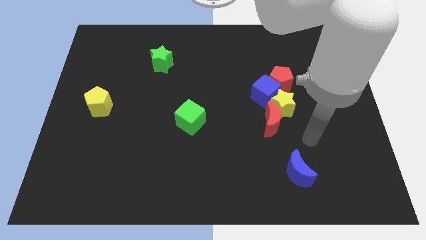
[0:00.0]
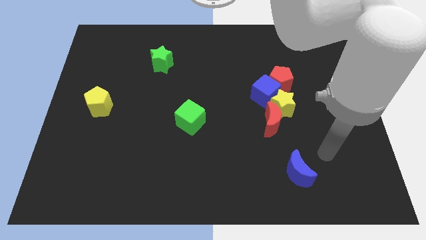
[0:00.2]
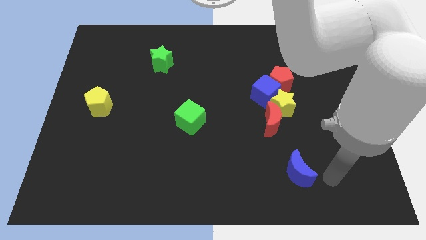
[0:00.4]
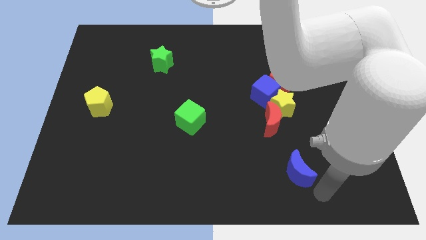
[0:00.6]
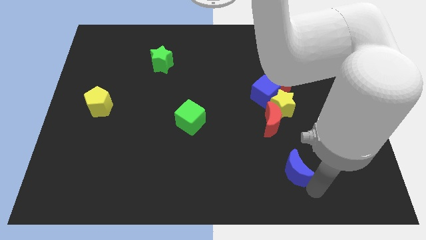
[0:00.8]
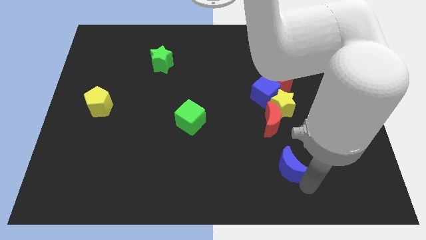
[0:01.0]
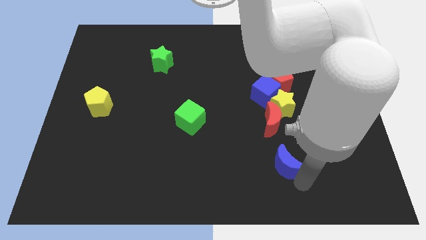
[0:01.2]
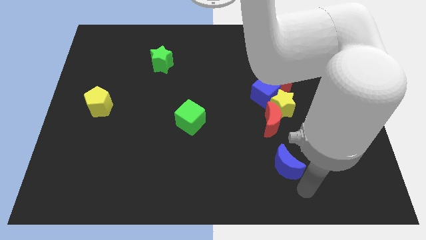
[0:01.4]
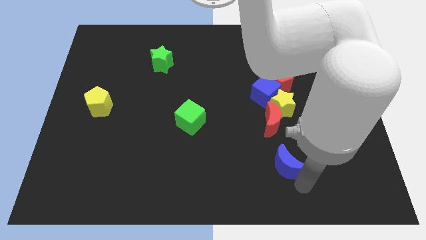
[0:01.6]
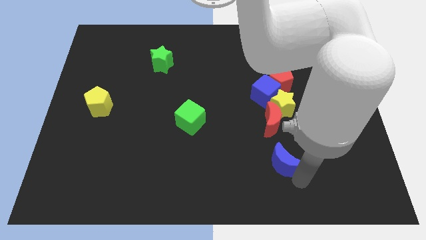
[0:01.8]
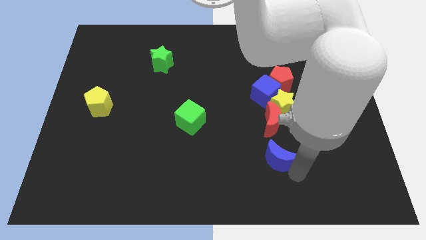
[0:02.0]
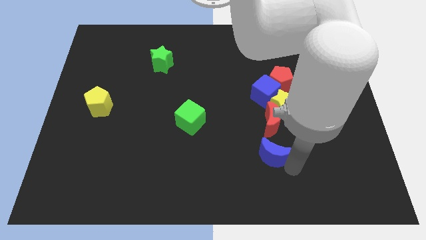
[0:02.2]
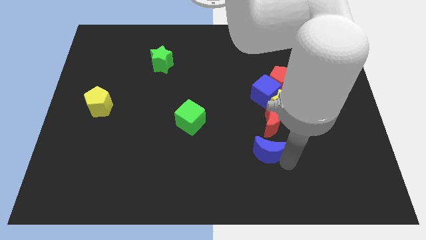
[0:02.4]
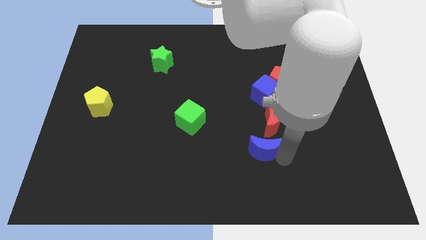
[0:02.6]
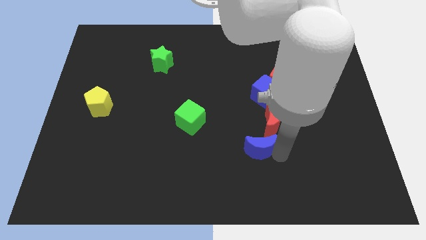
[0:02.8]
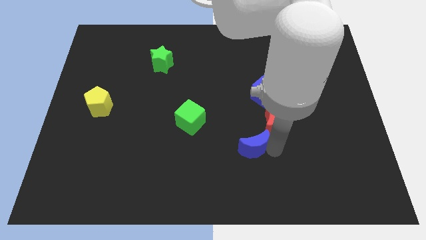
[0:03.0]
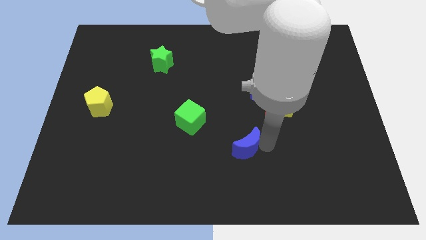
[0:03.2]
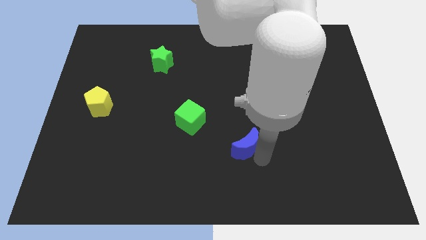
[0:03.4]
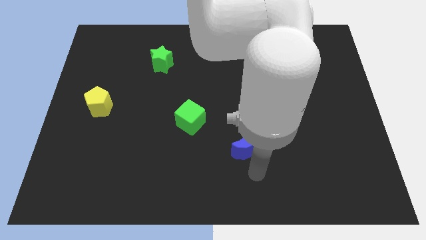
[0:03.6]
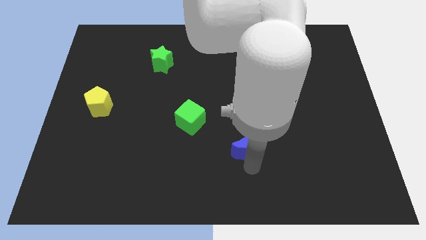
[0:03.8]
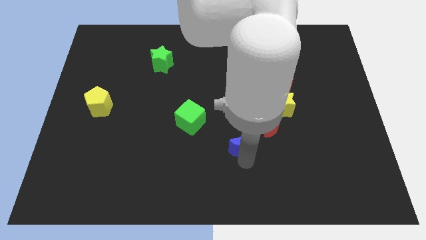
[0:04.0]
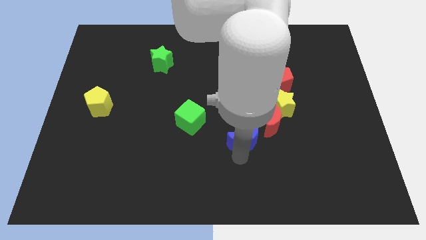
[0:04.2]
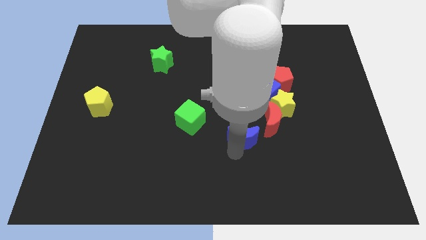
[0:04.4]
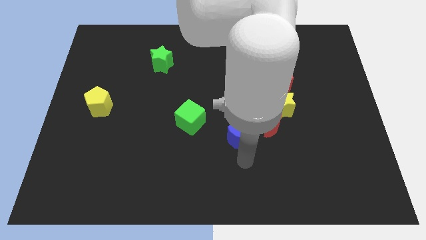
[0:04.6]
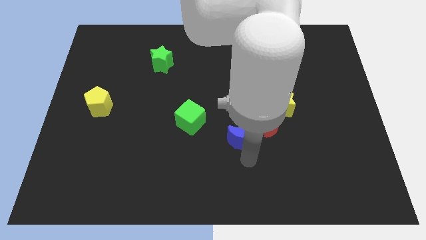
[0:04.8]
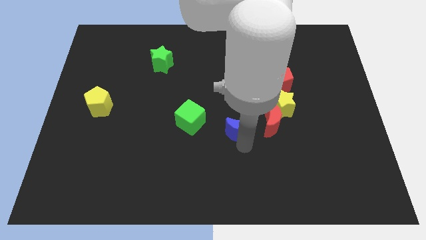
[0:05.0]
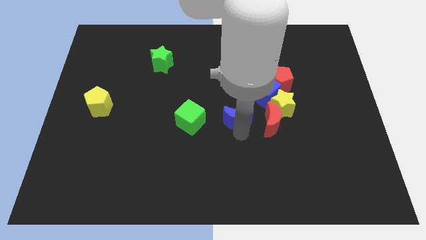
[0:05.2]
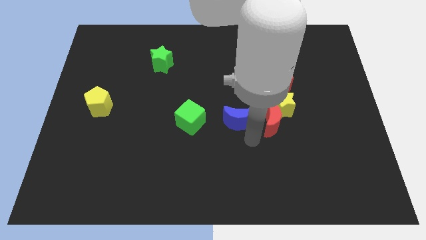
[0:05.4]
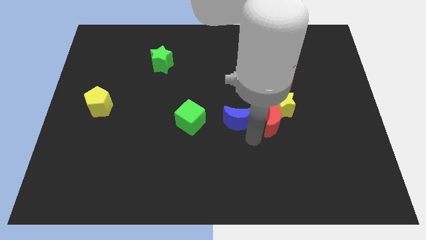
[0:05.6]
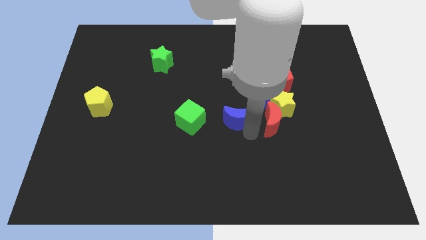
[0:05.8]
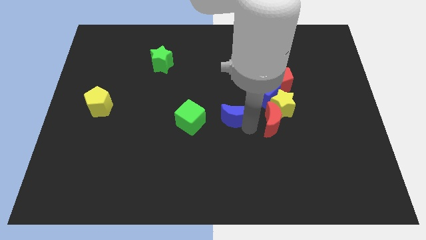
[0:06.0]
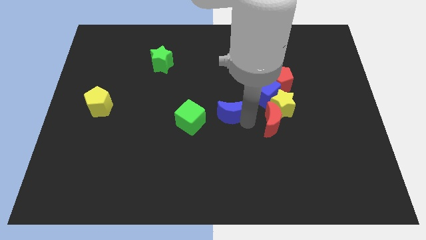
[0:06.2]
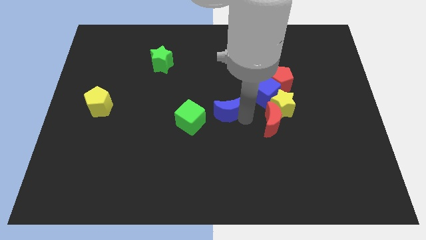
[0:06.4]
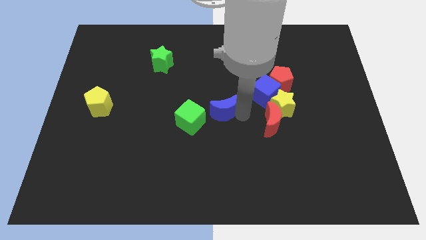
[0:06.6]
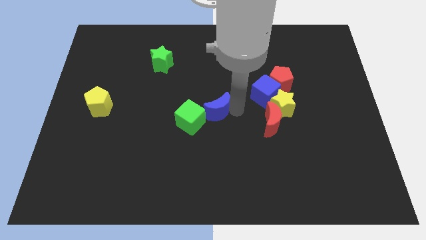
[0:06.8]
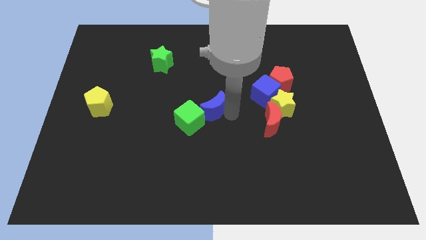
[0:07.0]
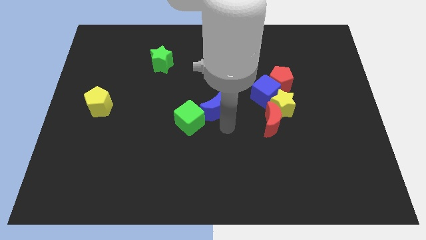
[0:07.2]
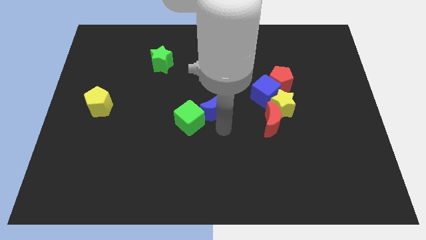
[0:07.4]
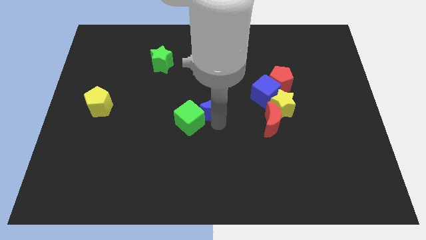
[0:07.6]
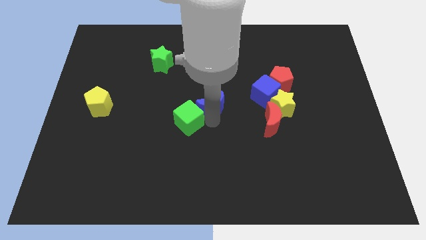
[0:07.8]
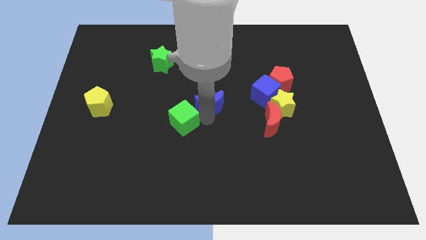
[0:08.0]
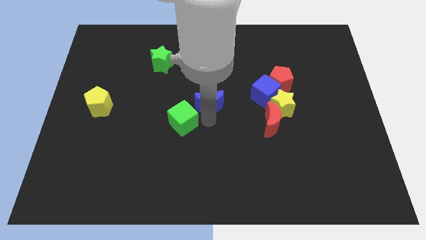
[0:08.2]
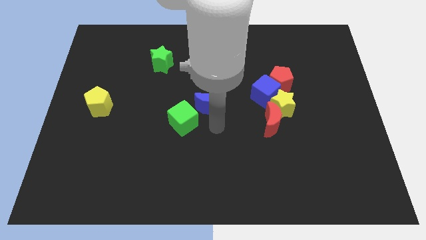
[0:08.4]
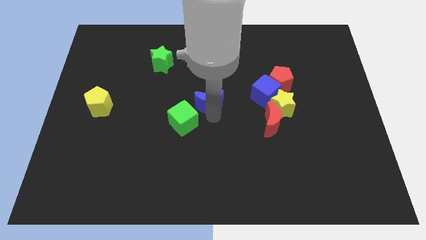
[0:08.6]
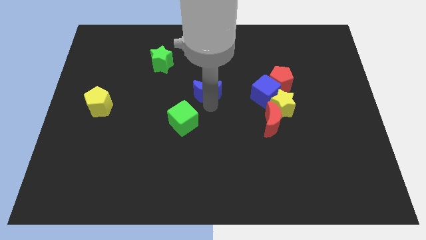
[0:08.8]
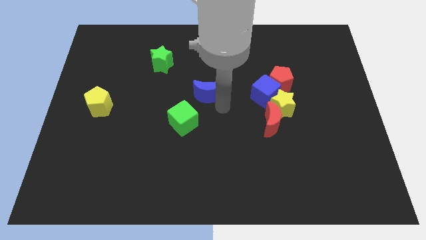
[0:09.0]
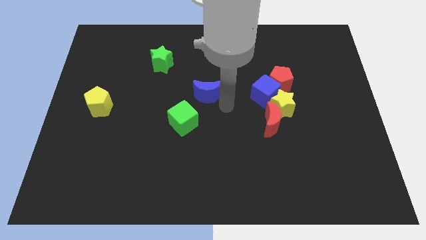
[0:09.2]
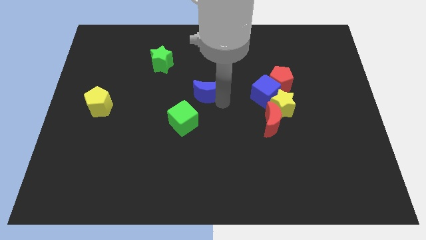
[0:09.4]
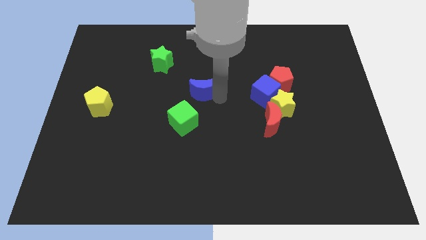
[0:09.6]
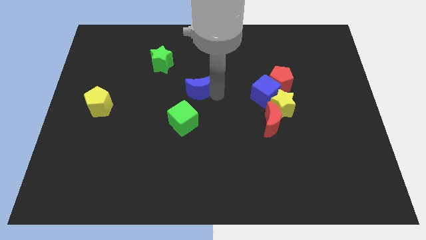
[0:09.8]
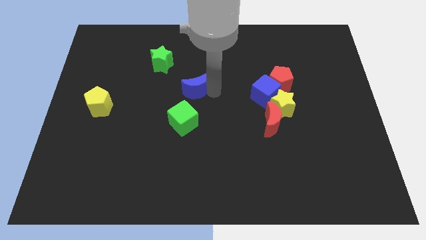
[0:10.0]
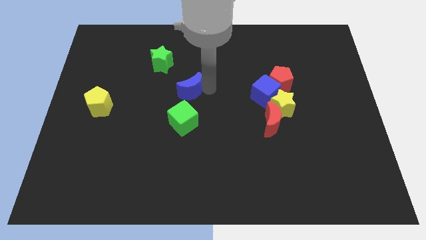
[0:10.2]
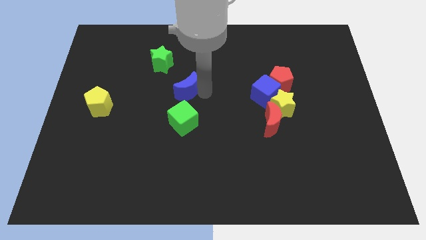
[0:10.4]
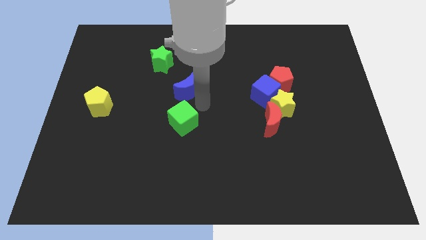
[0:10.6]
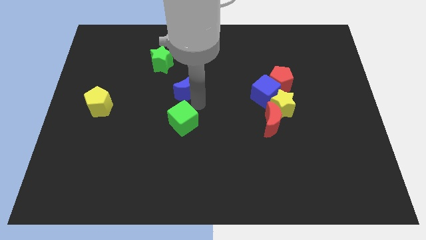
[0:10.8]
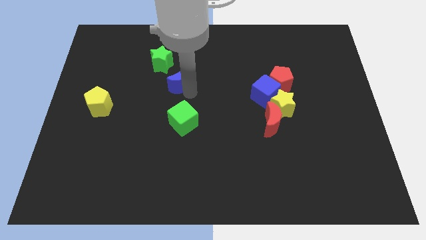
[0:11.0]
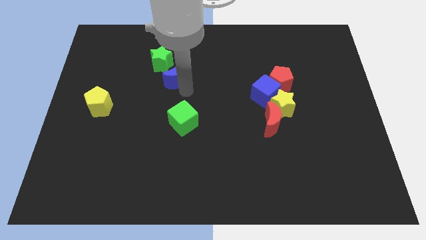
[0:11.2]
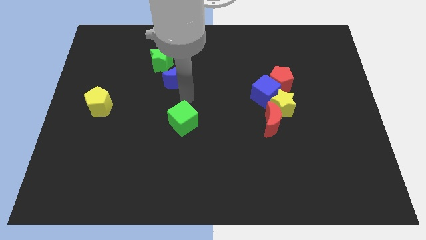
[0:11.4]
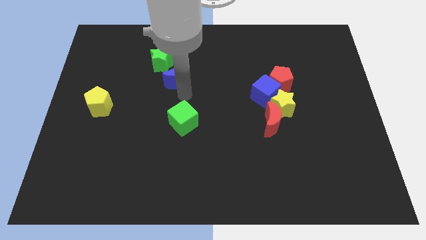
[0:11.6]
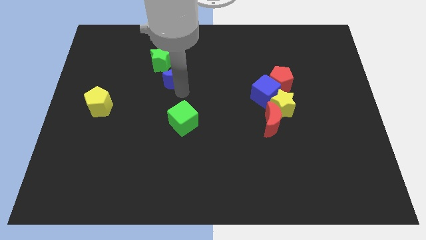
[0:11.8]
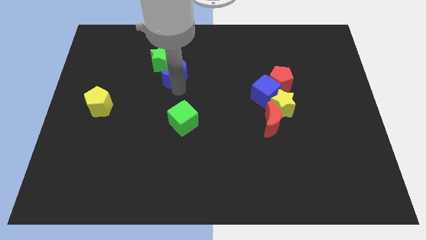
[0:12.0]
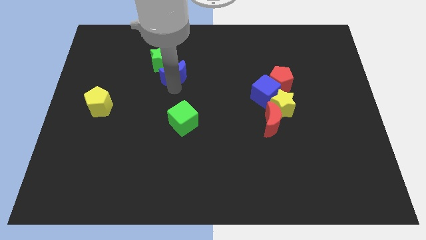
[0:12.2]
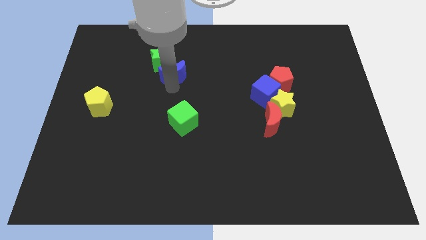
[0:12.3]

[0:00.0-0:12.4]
put the blue moon next to the green star

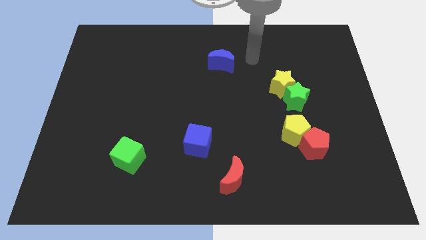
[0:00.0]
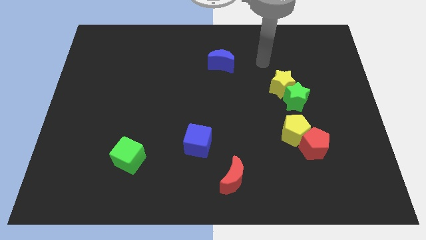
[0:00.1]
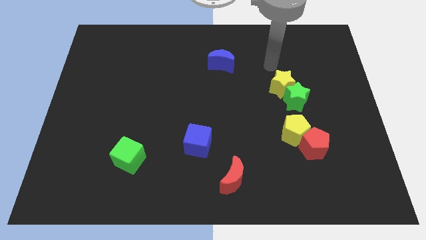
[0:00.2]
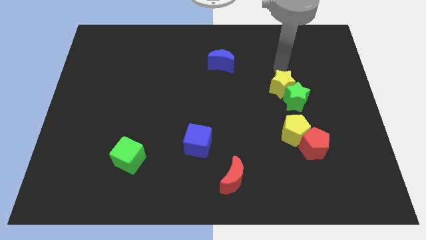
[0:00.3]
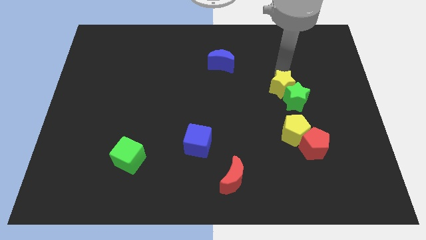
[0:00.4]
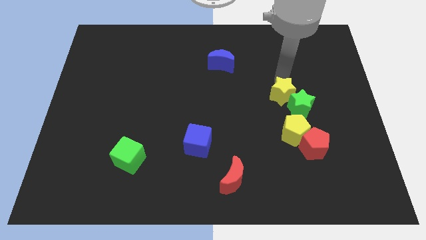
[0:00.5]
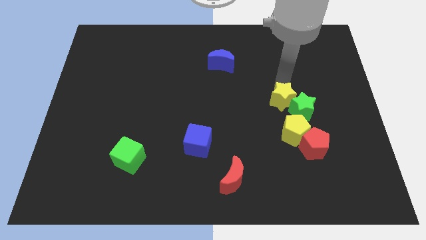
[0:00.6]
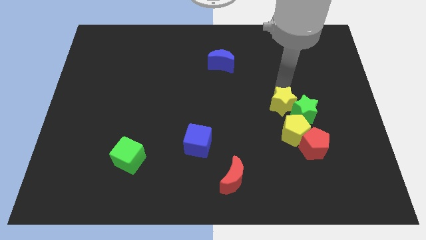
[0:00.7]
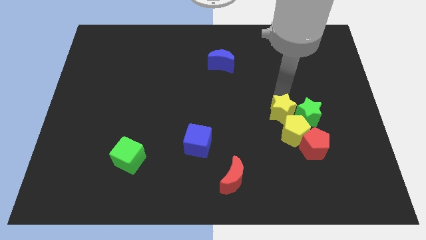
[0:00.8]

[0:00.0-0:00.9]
slide the yellow star close to the yellow pentagon
